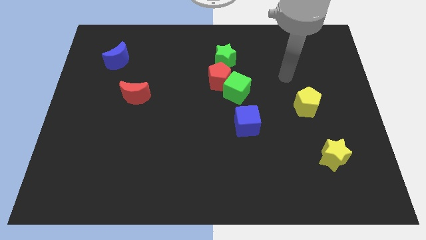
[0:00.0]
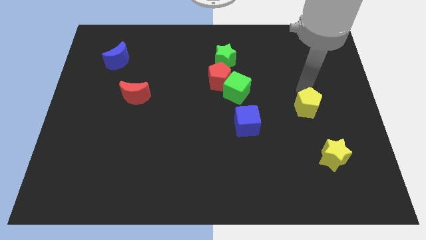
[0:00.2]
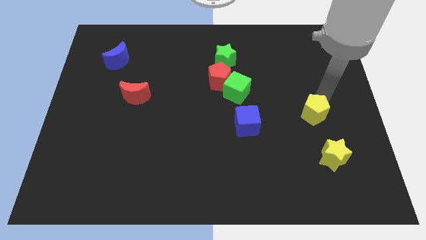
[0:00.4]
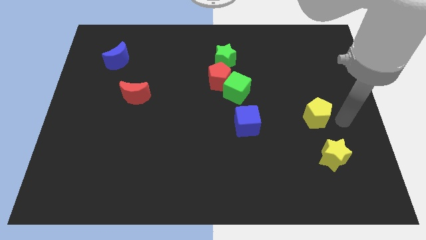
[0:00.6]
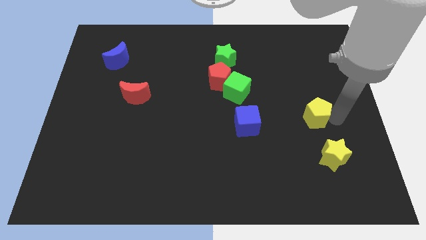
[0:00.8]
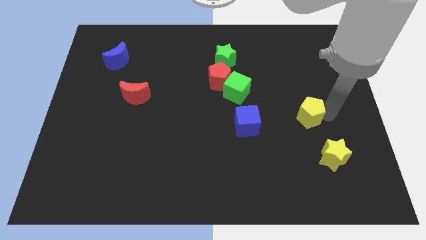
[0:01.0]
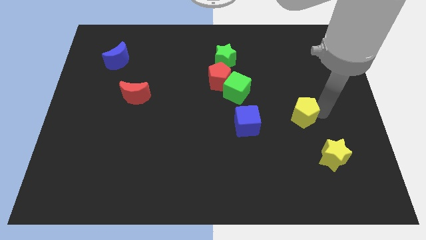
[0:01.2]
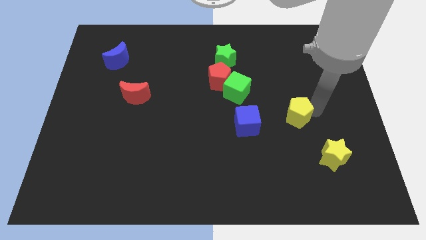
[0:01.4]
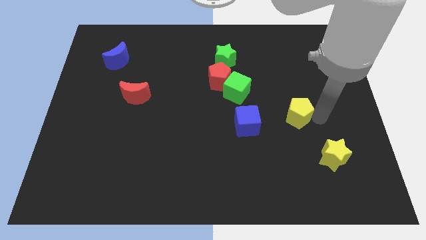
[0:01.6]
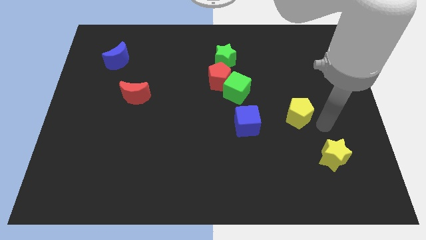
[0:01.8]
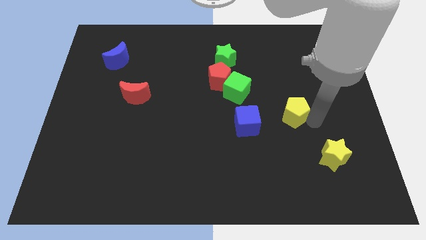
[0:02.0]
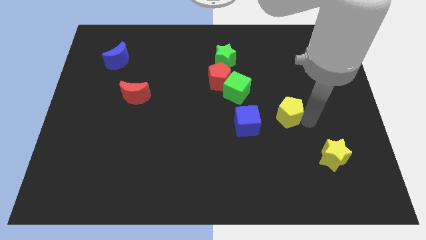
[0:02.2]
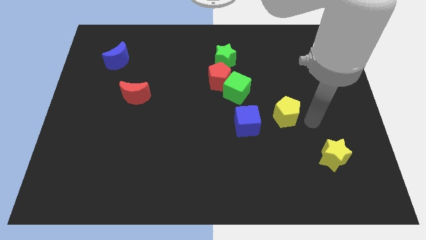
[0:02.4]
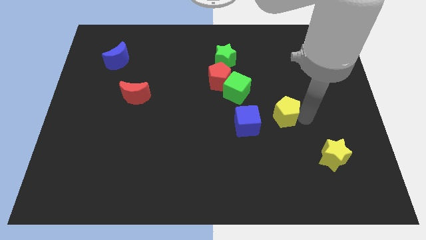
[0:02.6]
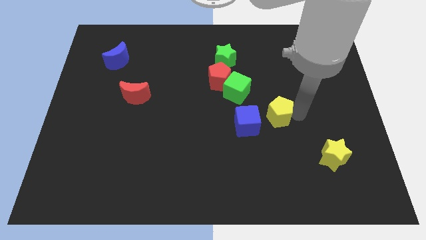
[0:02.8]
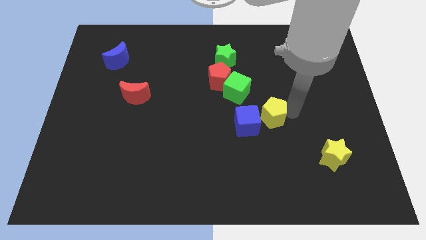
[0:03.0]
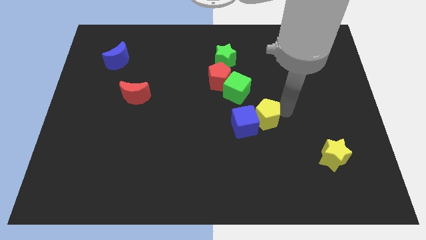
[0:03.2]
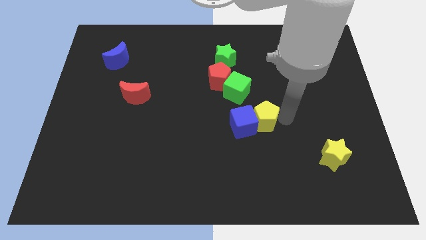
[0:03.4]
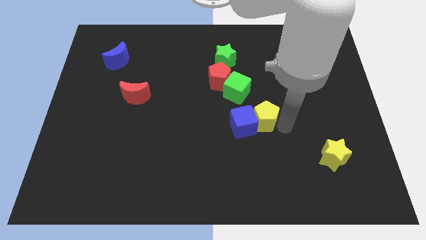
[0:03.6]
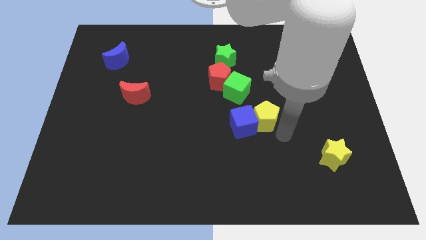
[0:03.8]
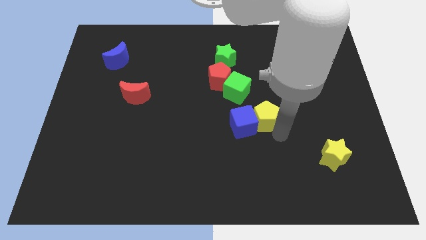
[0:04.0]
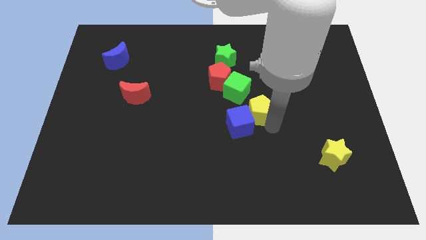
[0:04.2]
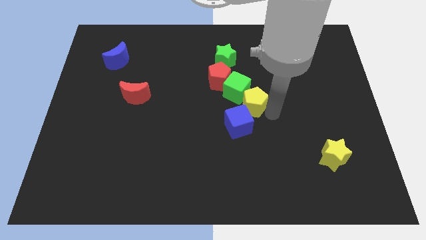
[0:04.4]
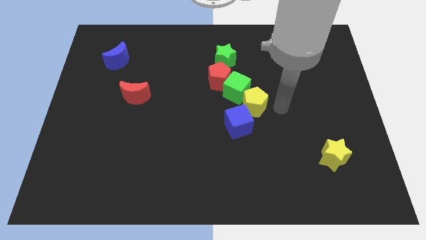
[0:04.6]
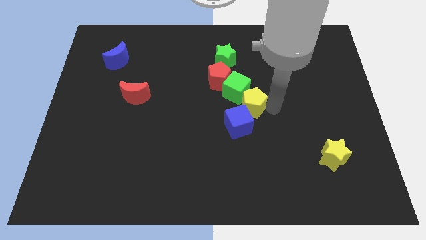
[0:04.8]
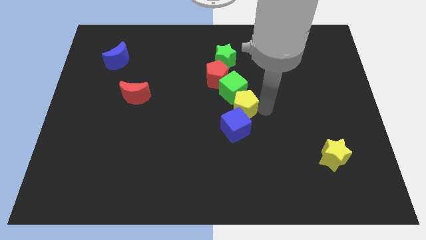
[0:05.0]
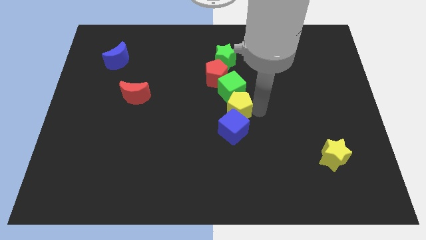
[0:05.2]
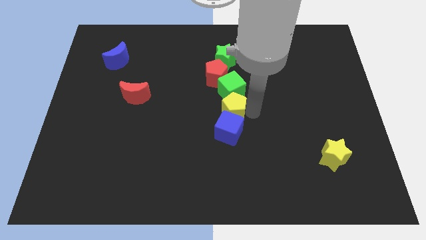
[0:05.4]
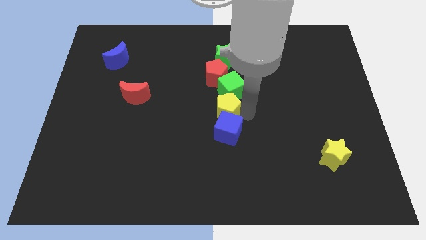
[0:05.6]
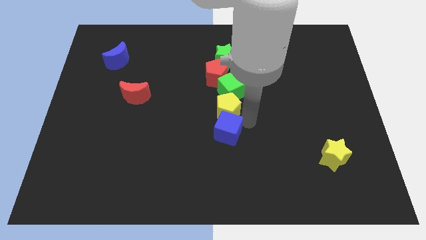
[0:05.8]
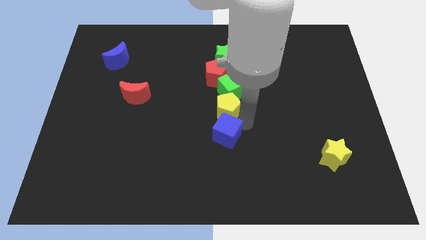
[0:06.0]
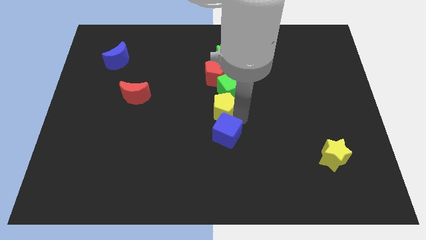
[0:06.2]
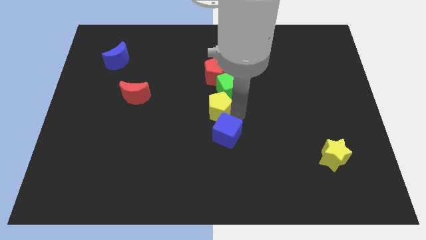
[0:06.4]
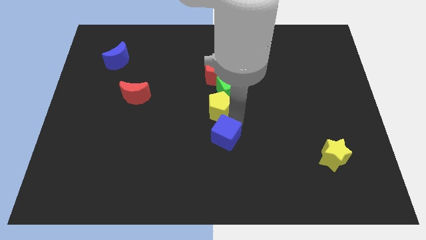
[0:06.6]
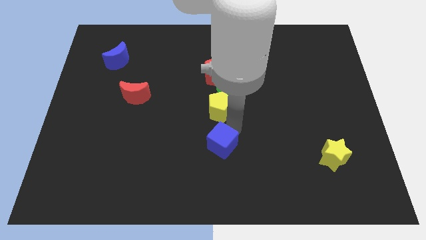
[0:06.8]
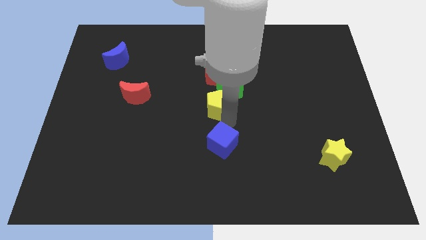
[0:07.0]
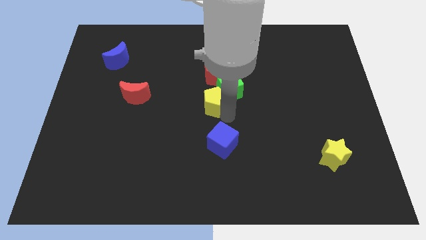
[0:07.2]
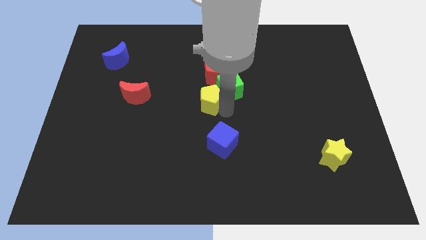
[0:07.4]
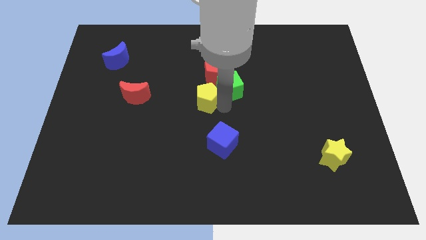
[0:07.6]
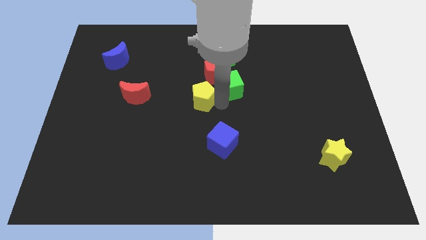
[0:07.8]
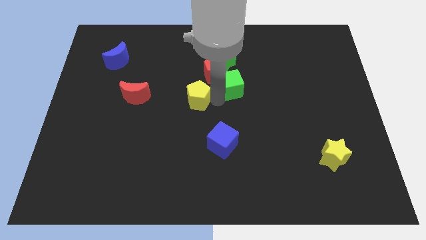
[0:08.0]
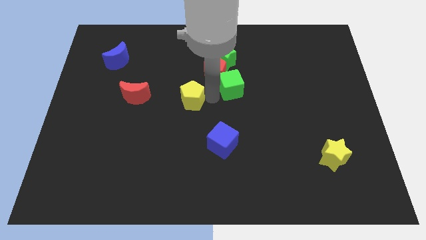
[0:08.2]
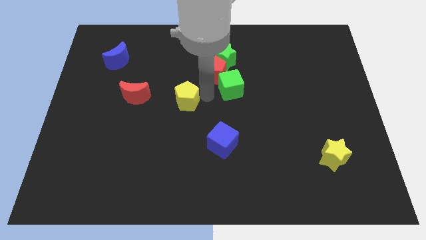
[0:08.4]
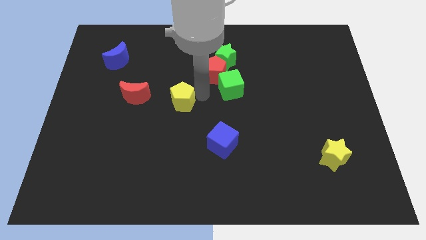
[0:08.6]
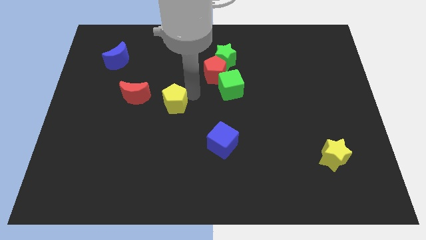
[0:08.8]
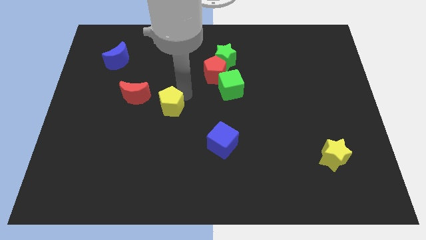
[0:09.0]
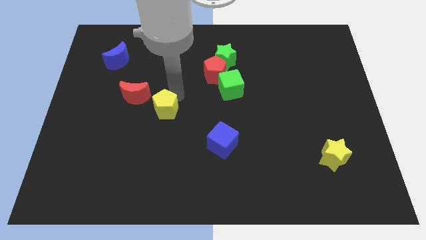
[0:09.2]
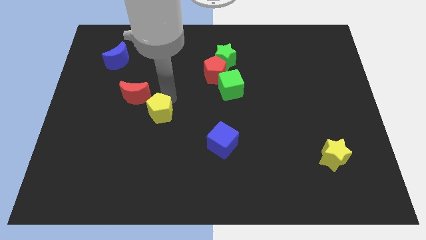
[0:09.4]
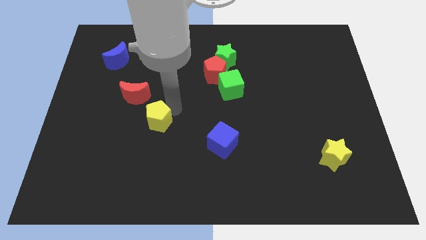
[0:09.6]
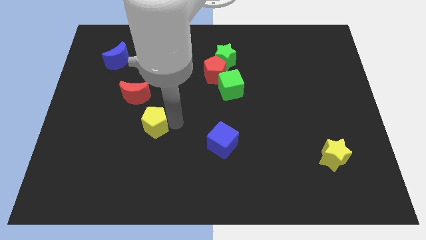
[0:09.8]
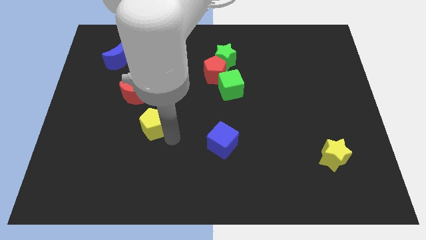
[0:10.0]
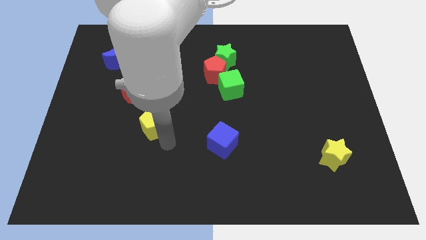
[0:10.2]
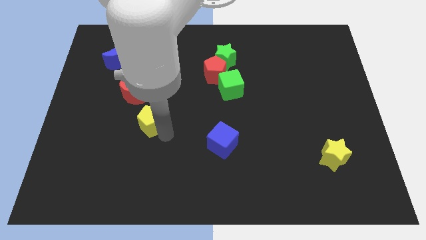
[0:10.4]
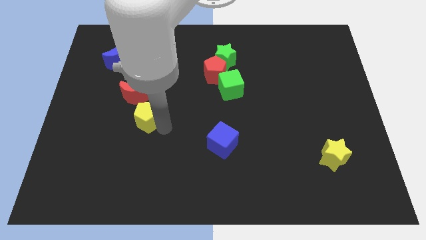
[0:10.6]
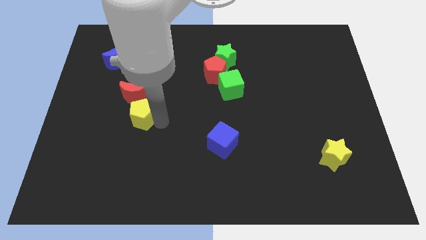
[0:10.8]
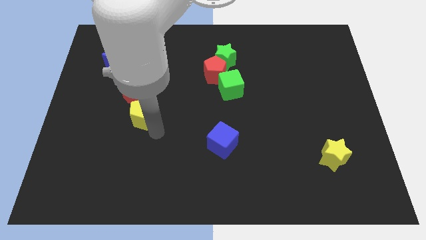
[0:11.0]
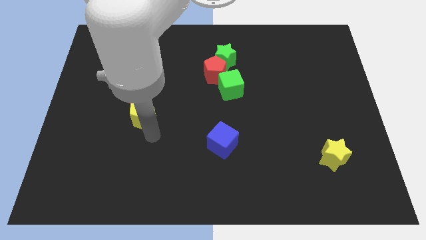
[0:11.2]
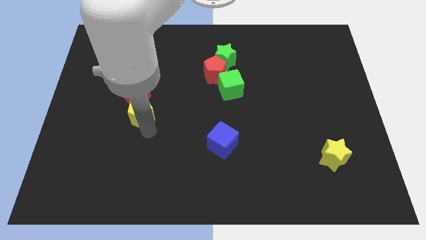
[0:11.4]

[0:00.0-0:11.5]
slide the yellow pentagon towards the red moon

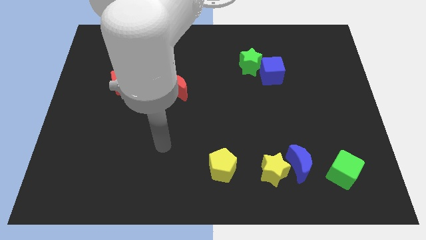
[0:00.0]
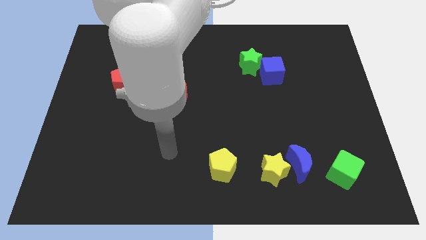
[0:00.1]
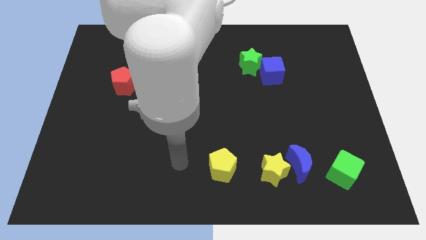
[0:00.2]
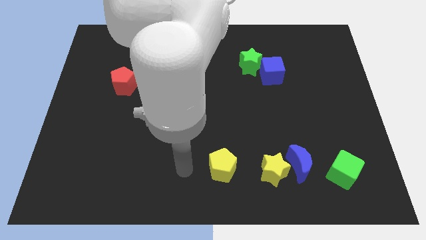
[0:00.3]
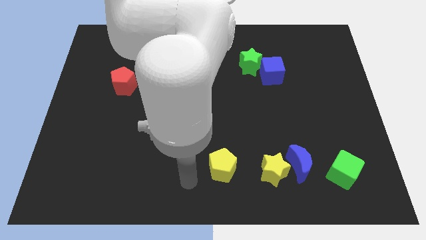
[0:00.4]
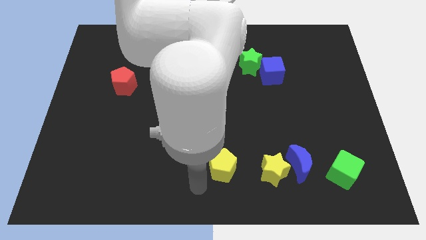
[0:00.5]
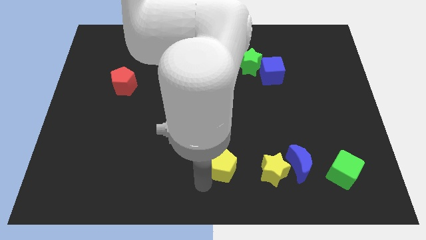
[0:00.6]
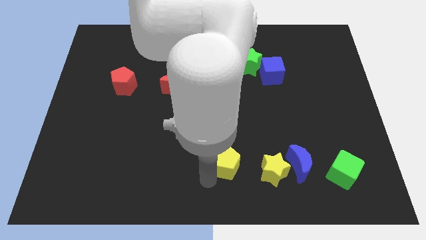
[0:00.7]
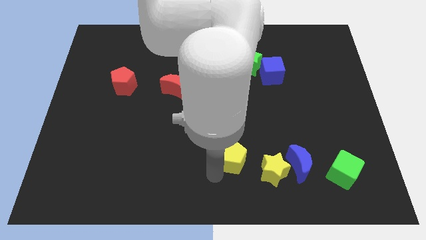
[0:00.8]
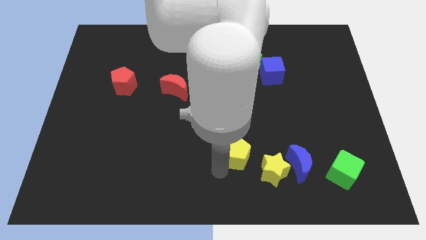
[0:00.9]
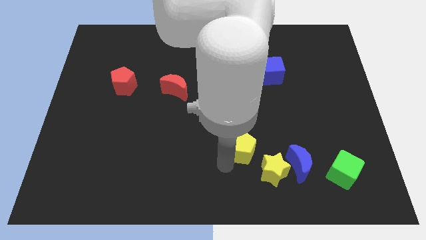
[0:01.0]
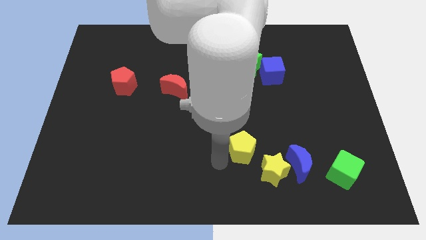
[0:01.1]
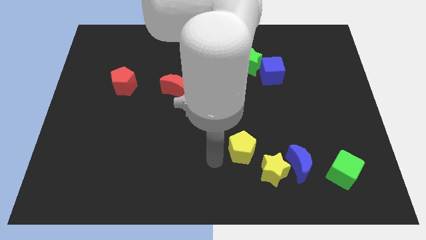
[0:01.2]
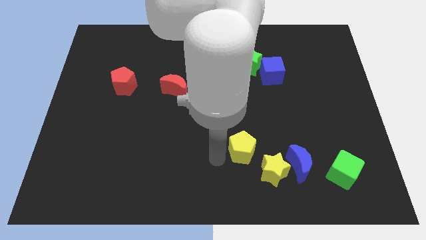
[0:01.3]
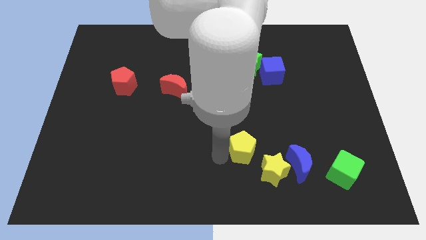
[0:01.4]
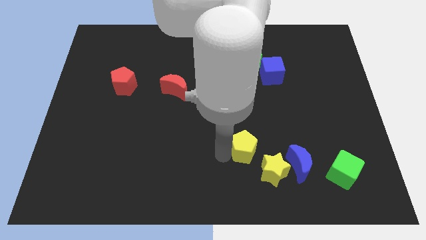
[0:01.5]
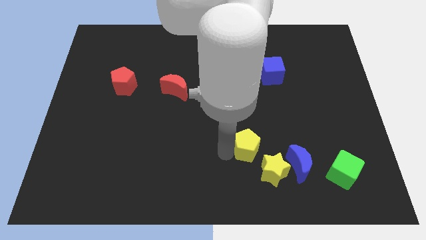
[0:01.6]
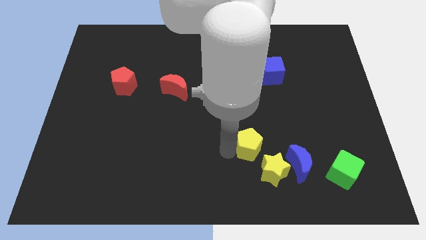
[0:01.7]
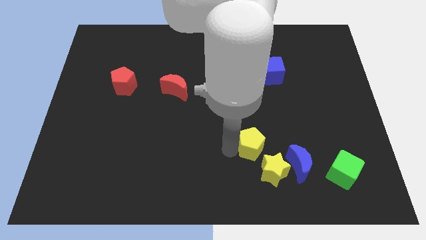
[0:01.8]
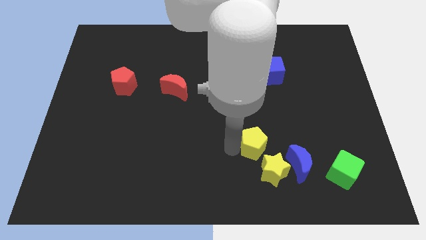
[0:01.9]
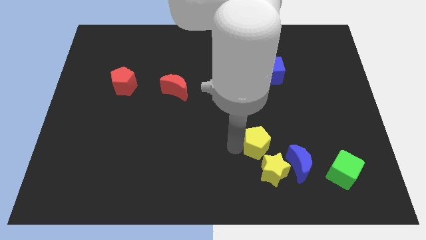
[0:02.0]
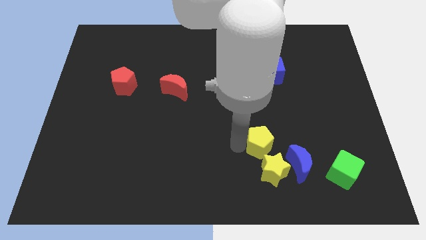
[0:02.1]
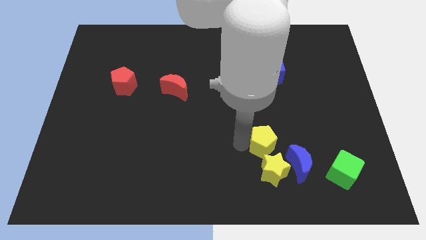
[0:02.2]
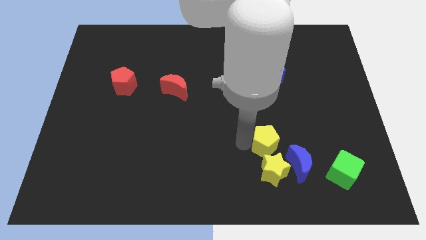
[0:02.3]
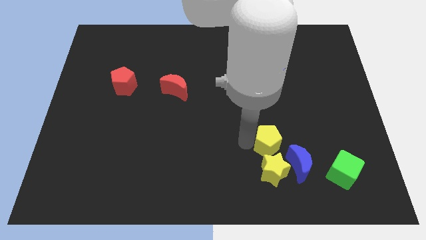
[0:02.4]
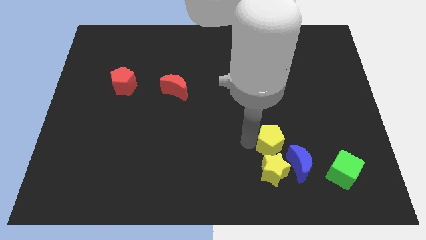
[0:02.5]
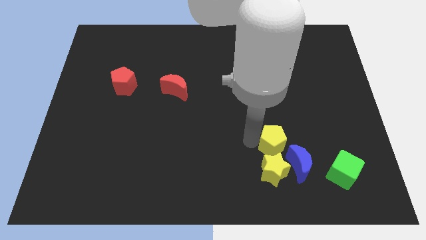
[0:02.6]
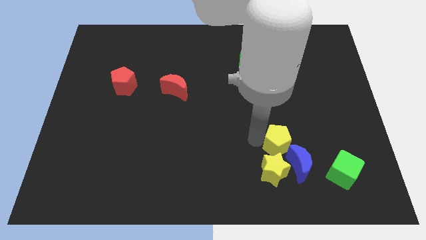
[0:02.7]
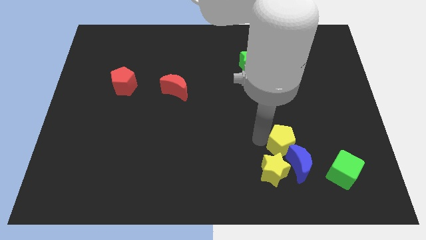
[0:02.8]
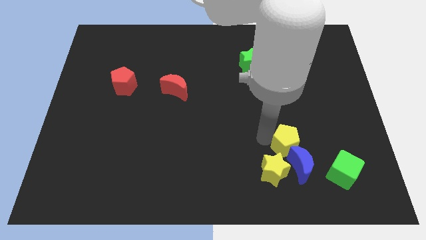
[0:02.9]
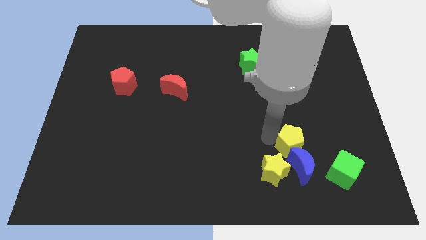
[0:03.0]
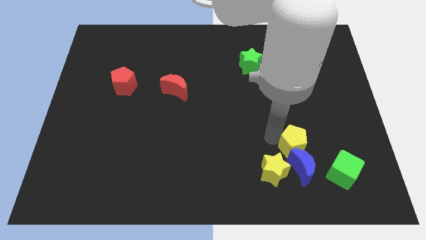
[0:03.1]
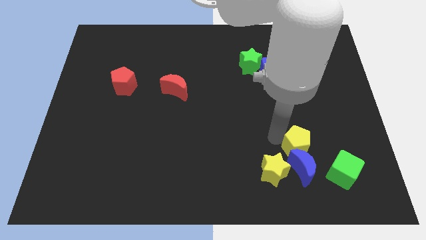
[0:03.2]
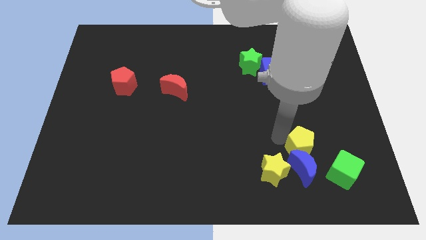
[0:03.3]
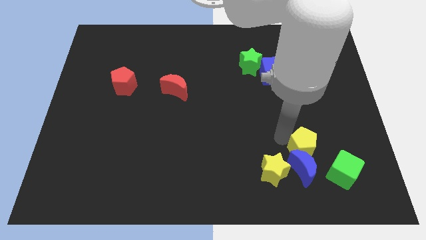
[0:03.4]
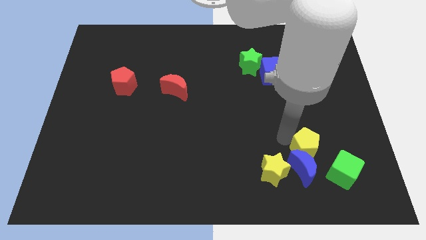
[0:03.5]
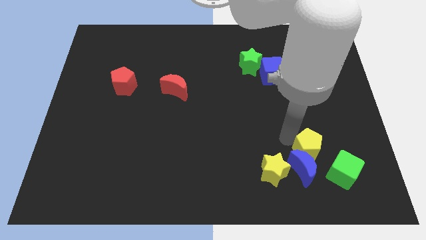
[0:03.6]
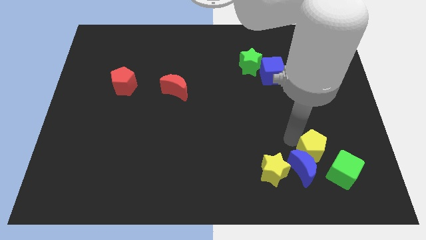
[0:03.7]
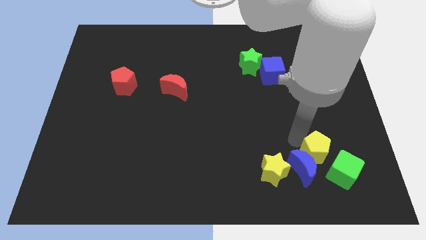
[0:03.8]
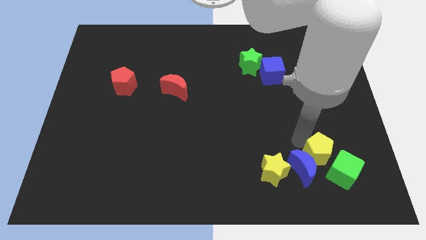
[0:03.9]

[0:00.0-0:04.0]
push the yellow pentagon next to the green cube
